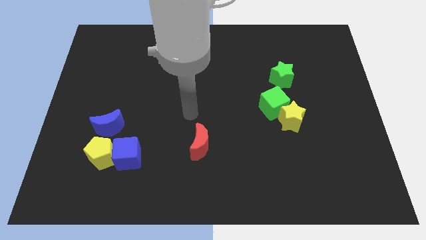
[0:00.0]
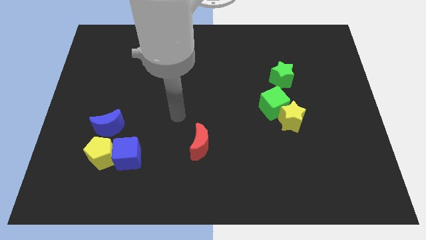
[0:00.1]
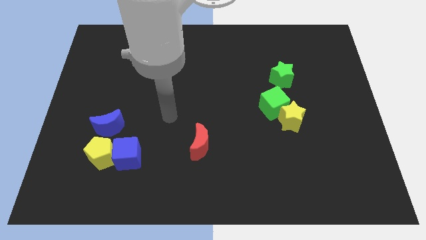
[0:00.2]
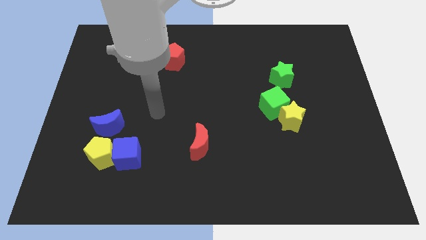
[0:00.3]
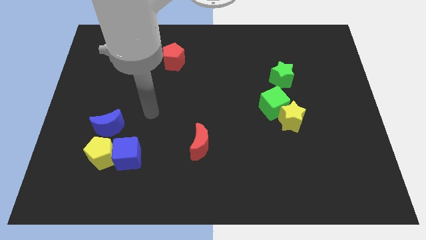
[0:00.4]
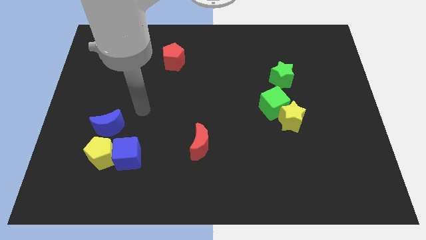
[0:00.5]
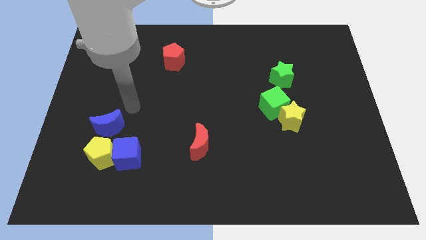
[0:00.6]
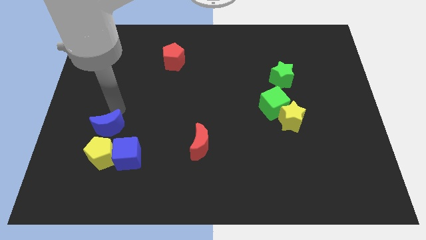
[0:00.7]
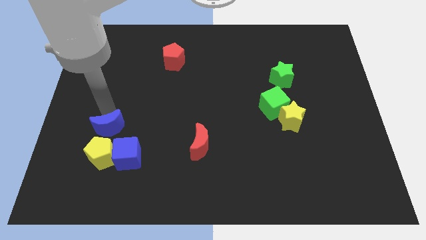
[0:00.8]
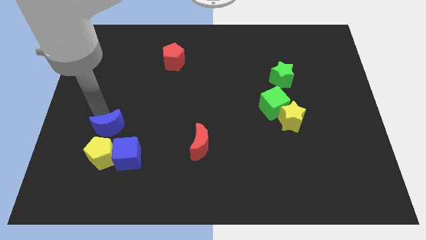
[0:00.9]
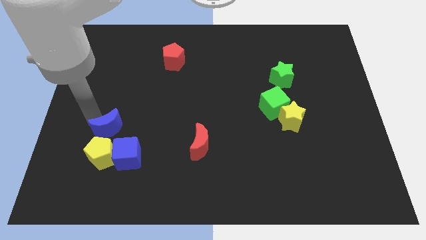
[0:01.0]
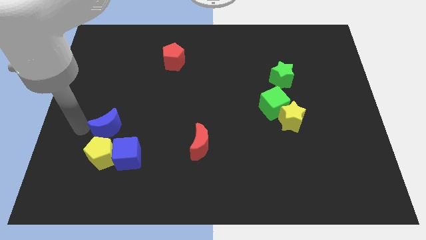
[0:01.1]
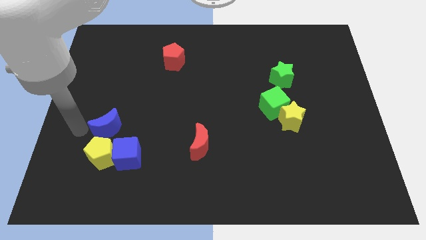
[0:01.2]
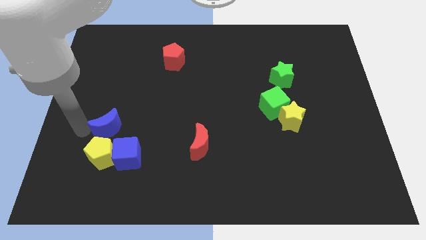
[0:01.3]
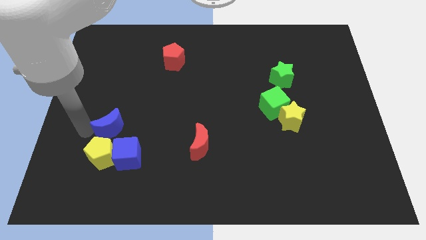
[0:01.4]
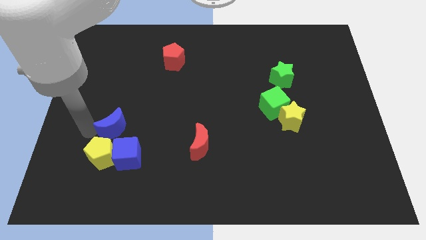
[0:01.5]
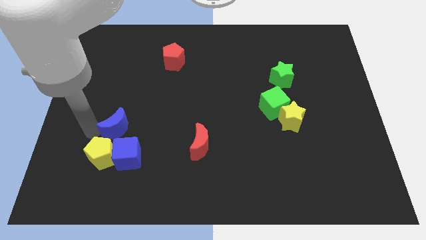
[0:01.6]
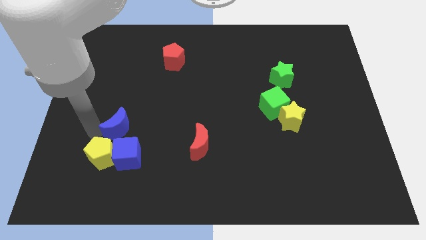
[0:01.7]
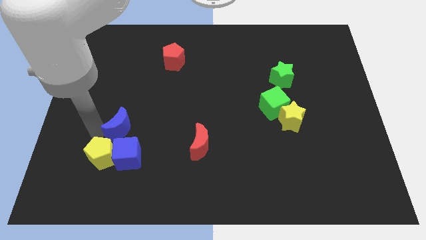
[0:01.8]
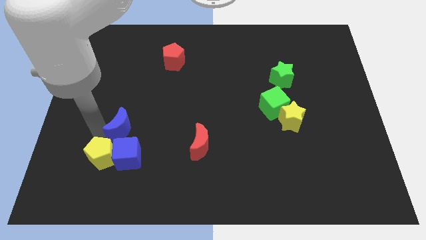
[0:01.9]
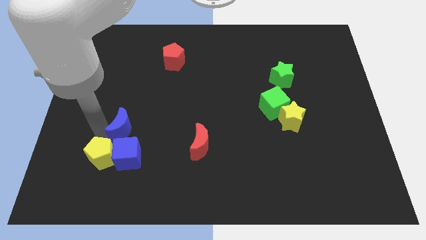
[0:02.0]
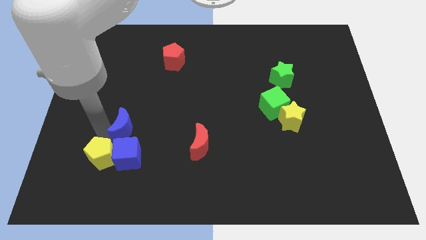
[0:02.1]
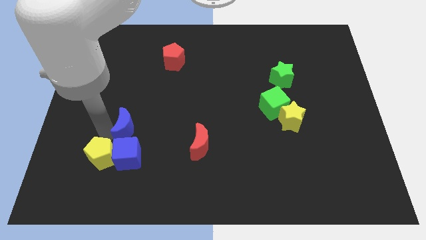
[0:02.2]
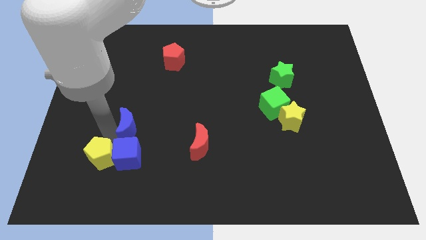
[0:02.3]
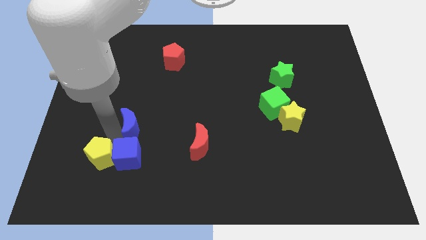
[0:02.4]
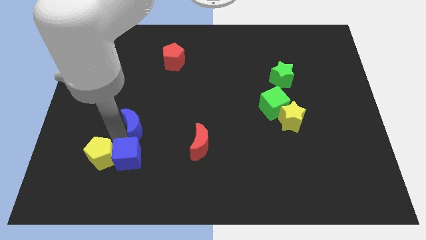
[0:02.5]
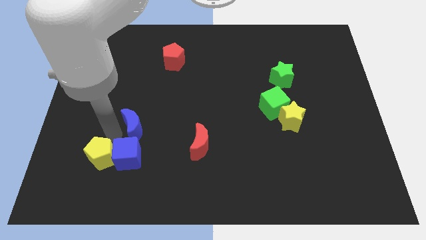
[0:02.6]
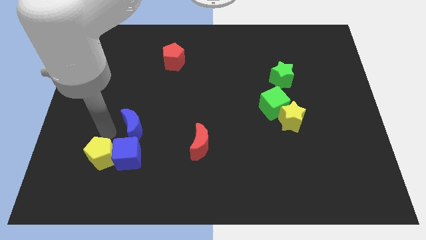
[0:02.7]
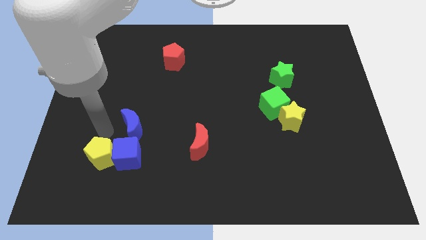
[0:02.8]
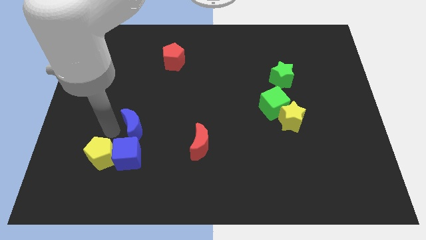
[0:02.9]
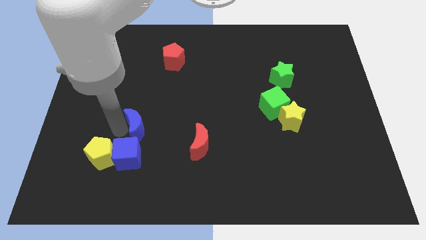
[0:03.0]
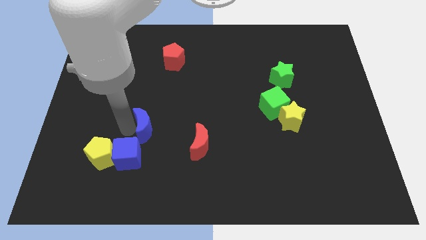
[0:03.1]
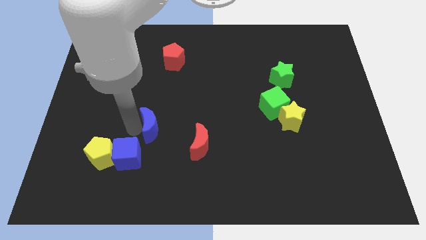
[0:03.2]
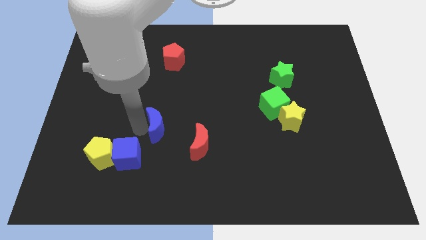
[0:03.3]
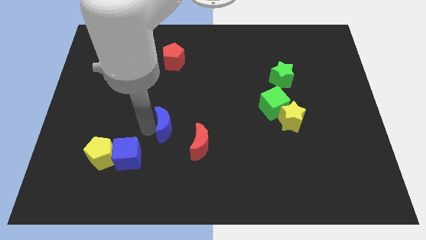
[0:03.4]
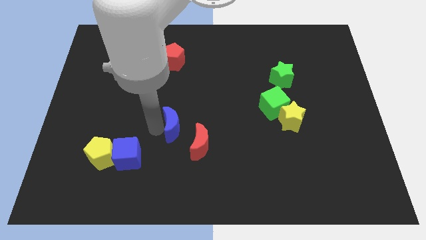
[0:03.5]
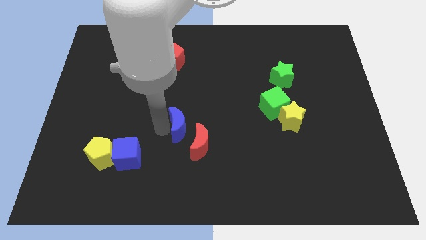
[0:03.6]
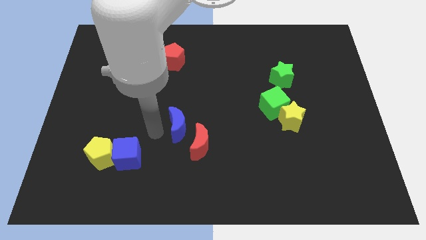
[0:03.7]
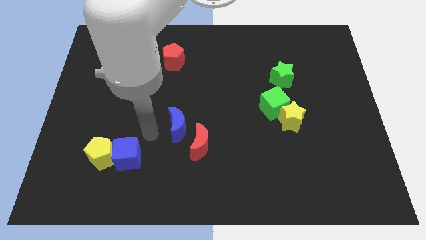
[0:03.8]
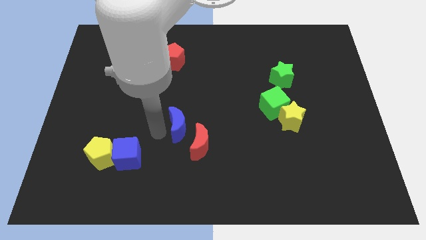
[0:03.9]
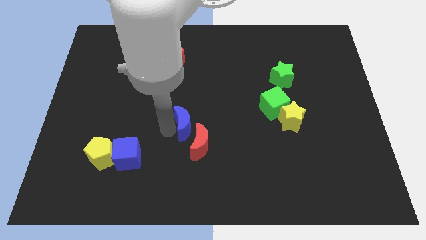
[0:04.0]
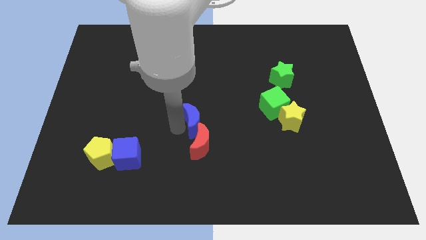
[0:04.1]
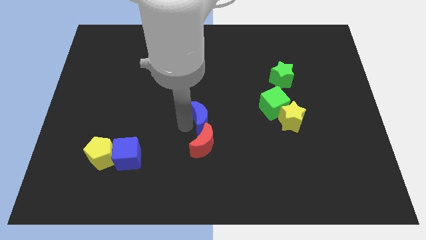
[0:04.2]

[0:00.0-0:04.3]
slide the blue moon to the right

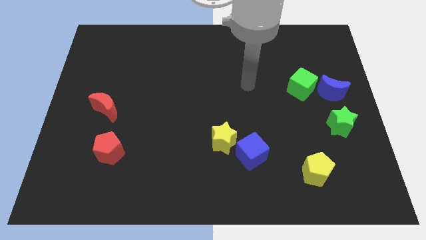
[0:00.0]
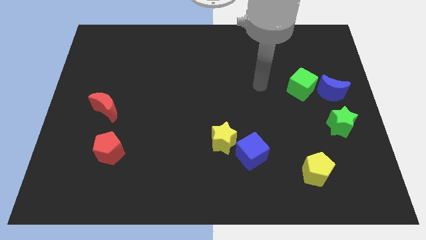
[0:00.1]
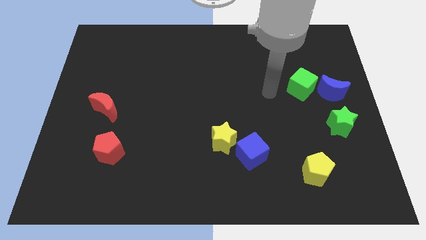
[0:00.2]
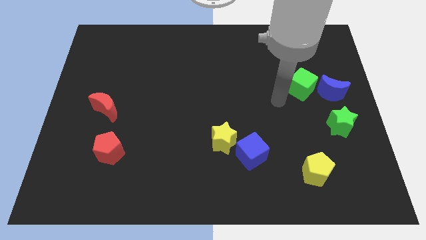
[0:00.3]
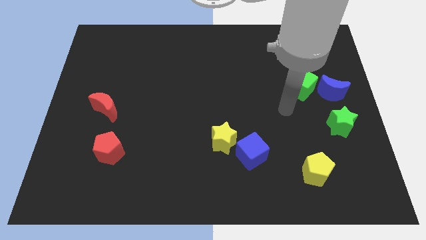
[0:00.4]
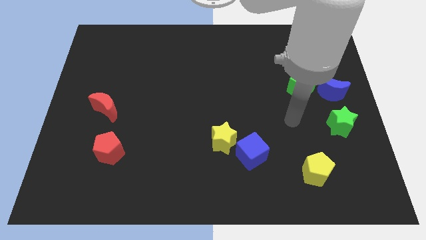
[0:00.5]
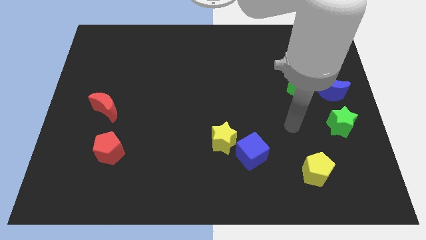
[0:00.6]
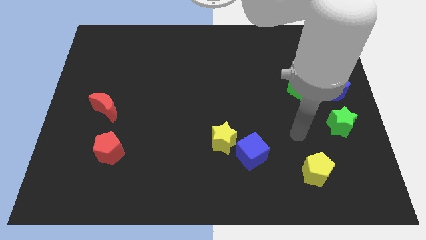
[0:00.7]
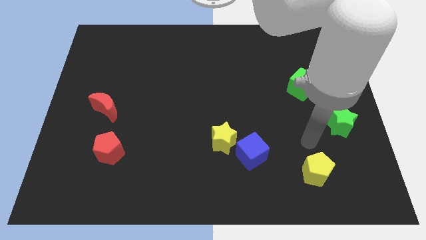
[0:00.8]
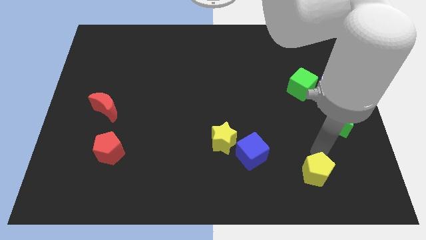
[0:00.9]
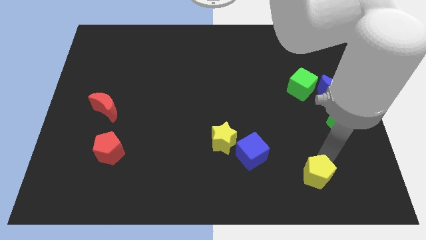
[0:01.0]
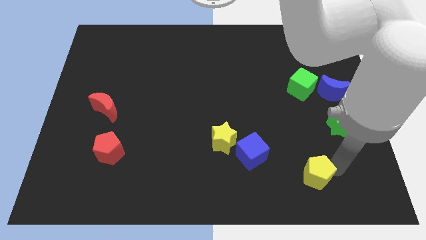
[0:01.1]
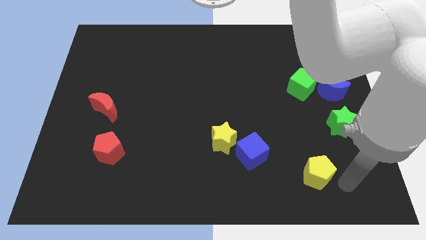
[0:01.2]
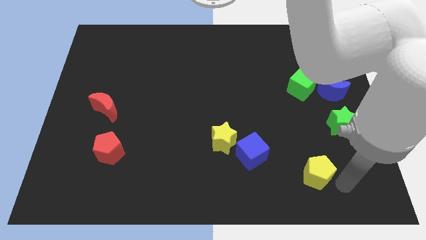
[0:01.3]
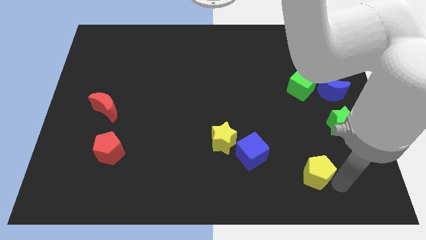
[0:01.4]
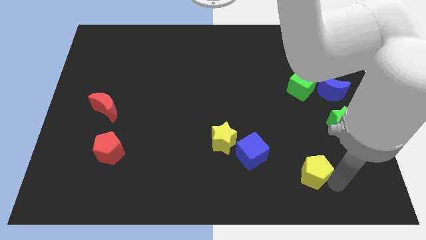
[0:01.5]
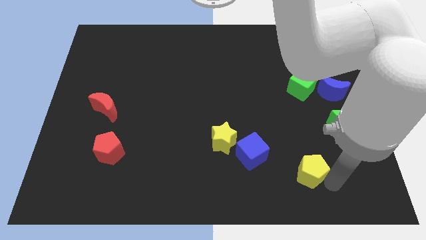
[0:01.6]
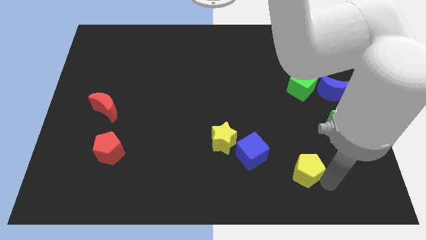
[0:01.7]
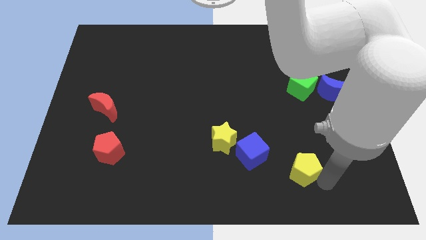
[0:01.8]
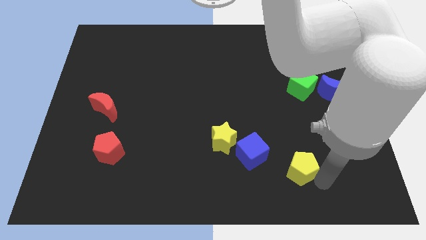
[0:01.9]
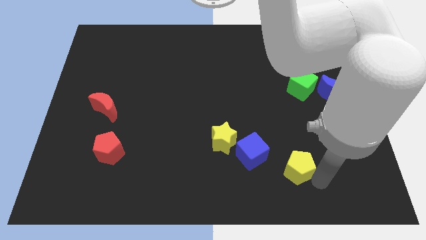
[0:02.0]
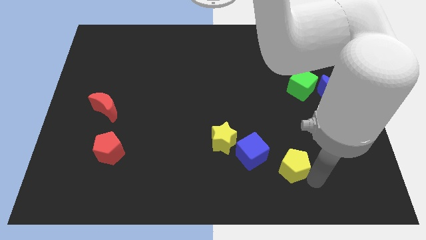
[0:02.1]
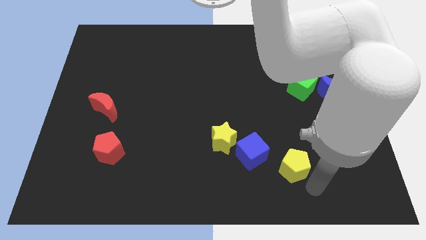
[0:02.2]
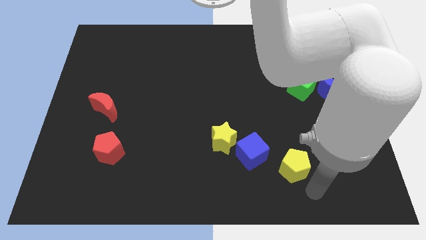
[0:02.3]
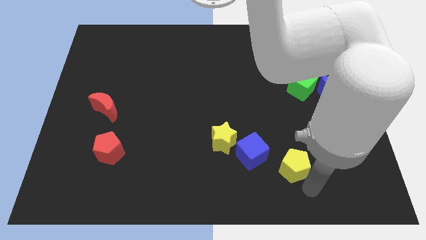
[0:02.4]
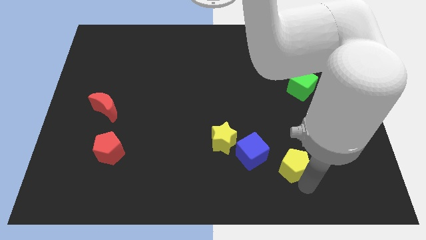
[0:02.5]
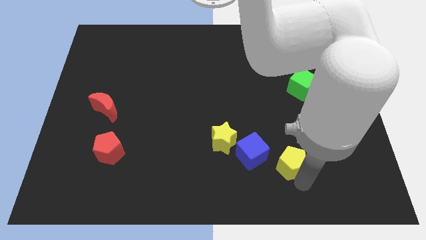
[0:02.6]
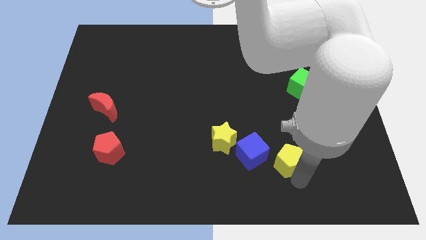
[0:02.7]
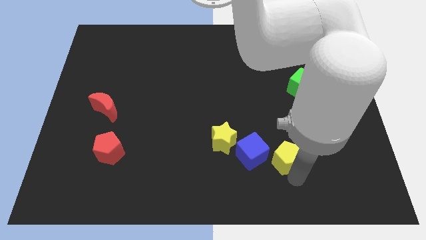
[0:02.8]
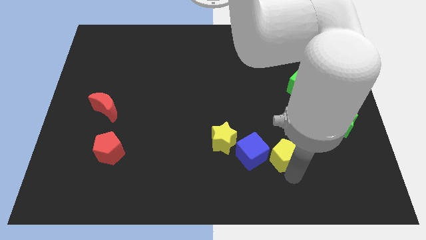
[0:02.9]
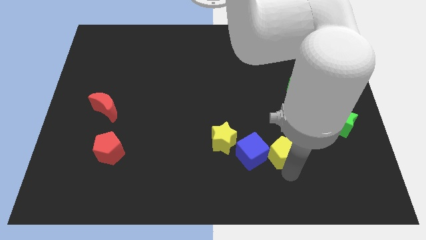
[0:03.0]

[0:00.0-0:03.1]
slightly move the yellow pentagon up and then to the left

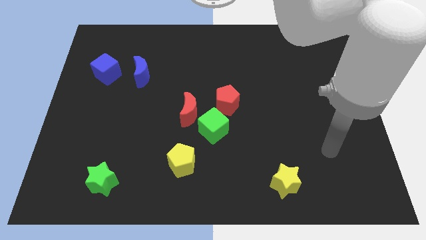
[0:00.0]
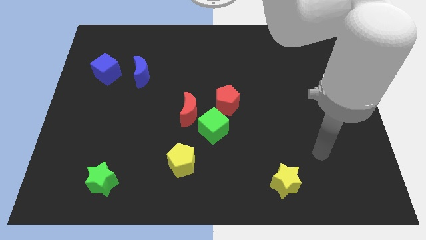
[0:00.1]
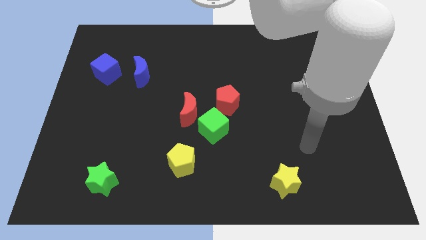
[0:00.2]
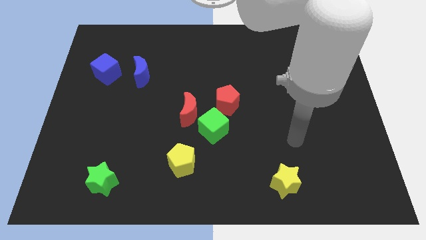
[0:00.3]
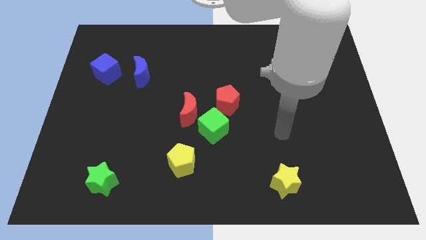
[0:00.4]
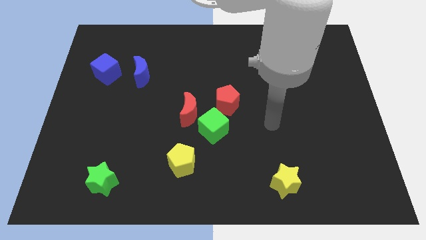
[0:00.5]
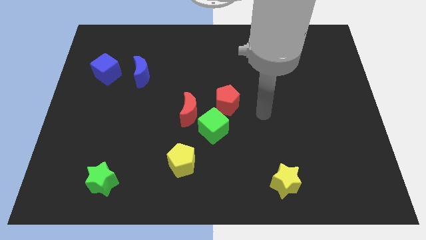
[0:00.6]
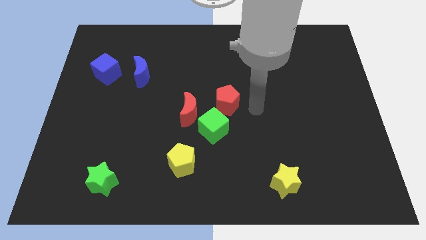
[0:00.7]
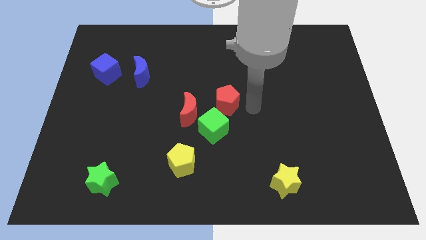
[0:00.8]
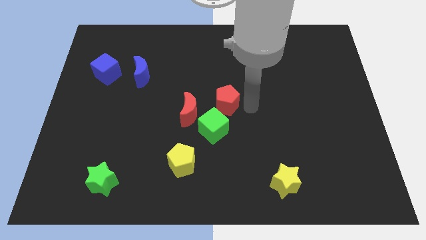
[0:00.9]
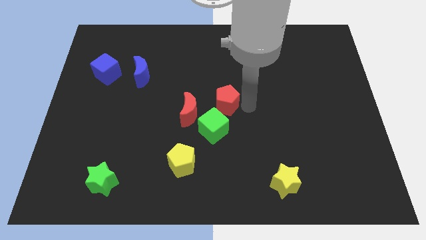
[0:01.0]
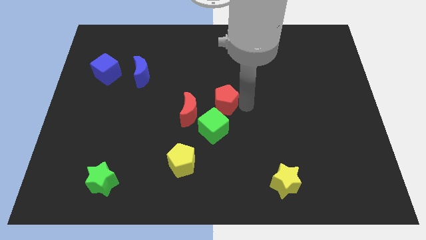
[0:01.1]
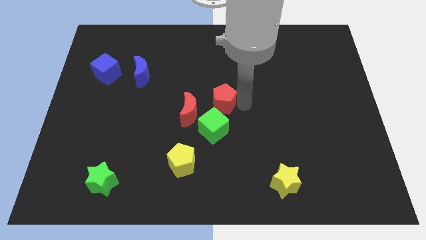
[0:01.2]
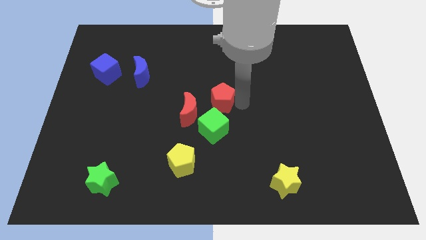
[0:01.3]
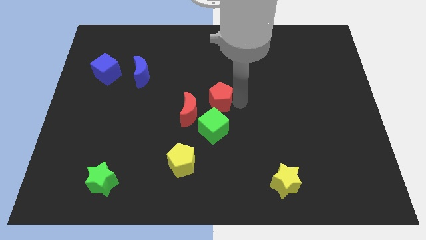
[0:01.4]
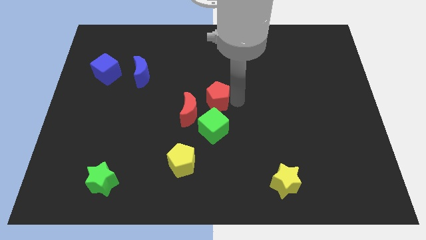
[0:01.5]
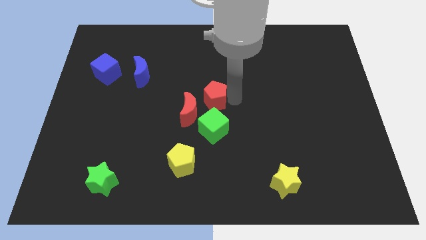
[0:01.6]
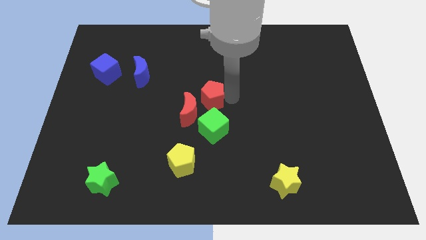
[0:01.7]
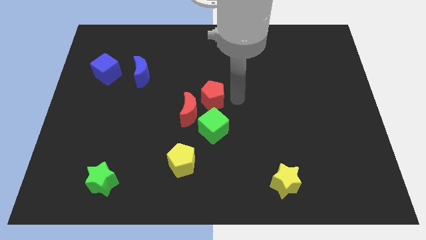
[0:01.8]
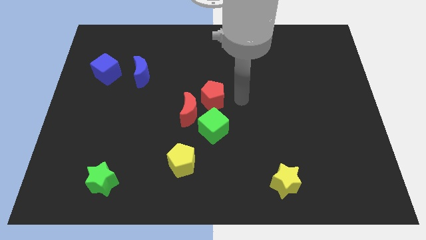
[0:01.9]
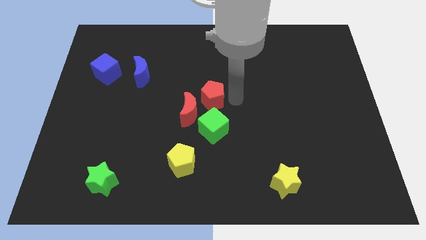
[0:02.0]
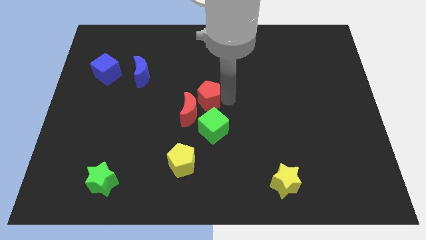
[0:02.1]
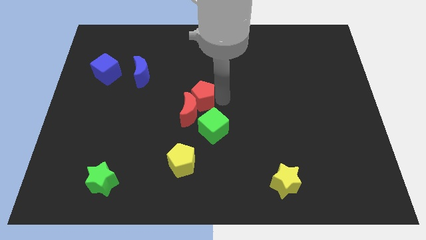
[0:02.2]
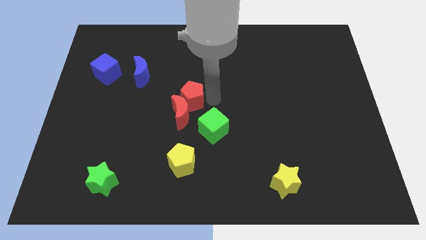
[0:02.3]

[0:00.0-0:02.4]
push the red pentagon slightly to the left
